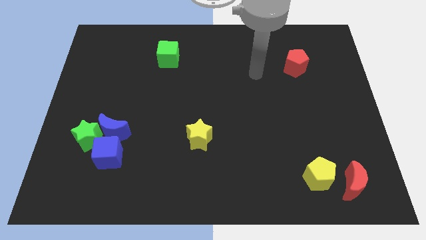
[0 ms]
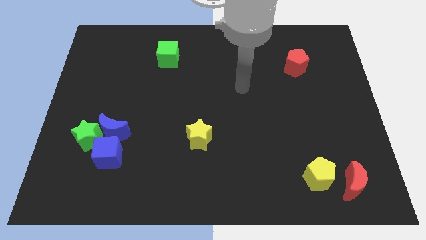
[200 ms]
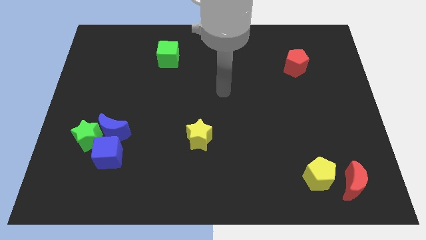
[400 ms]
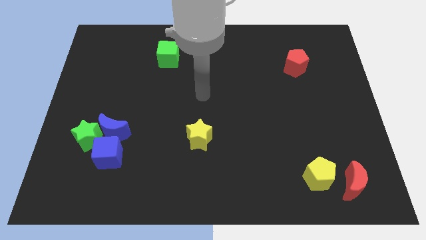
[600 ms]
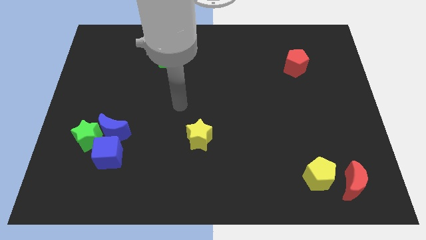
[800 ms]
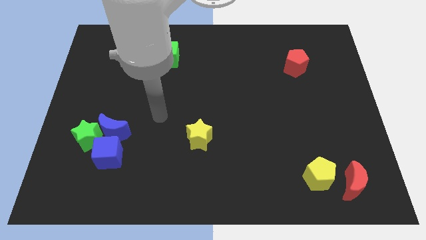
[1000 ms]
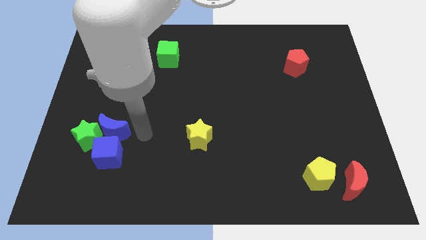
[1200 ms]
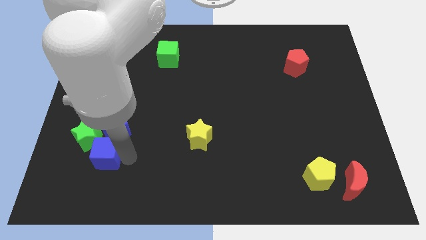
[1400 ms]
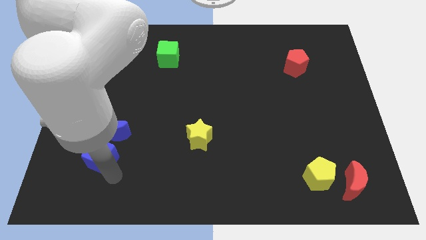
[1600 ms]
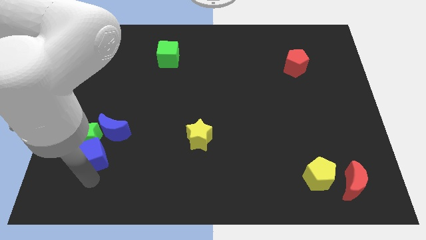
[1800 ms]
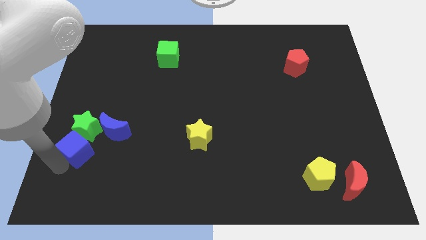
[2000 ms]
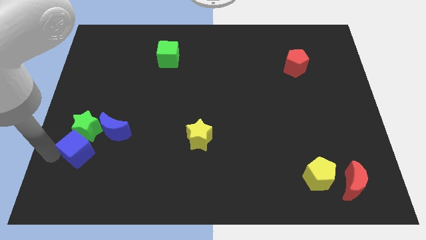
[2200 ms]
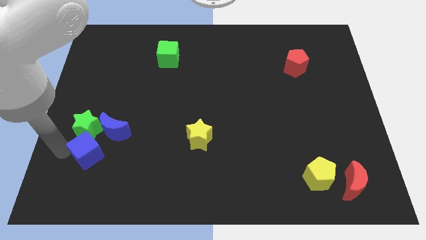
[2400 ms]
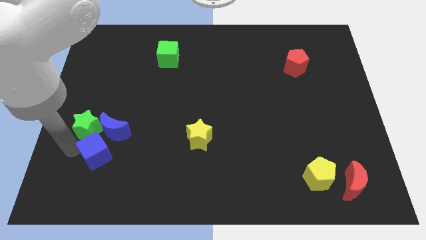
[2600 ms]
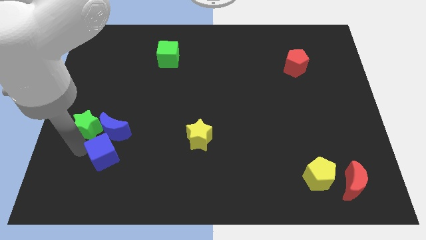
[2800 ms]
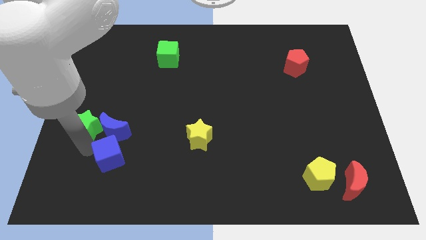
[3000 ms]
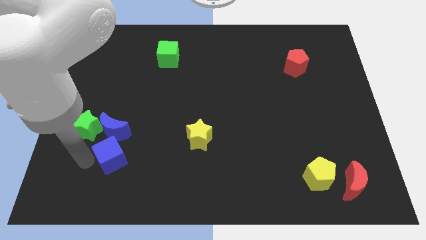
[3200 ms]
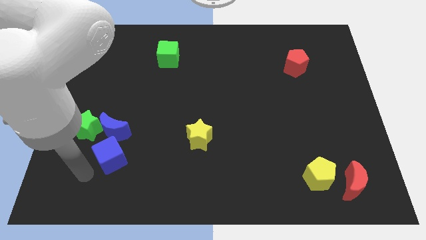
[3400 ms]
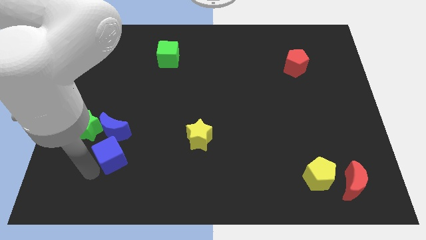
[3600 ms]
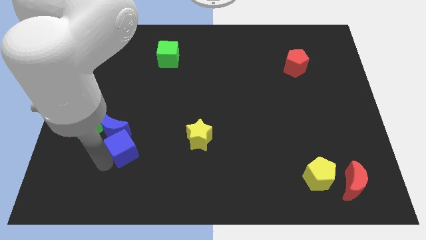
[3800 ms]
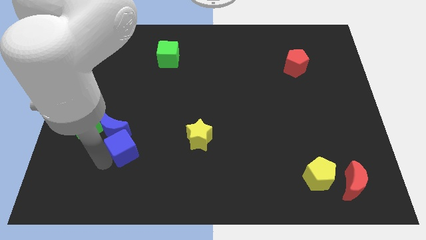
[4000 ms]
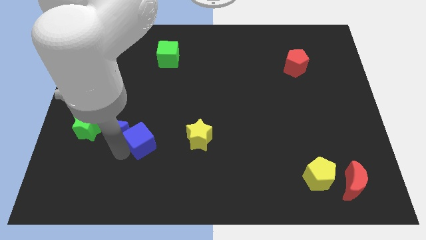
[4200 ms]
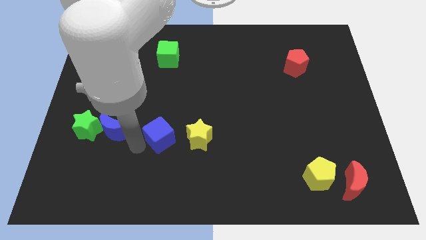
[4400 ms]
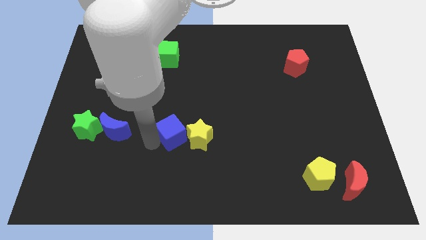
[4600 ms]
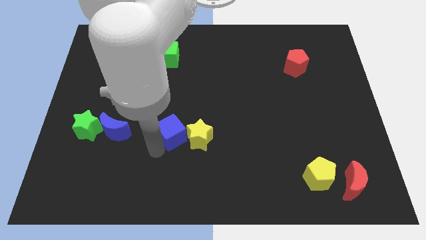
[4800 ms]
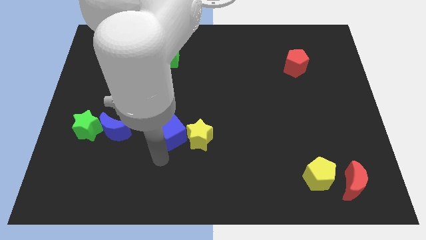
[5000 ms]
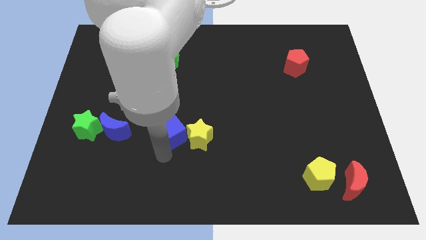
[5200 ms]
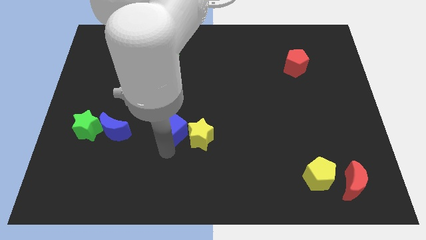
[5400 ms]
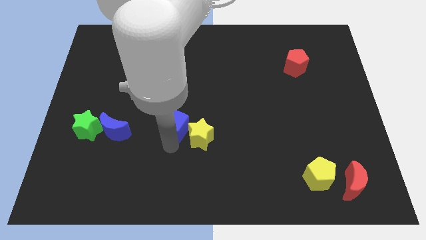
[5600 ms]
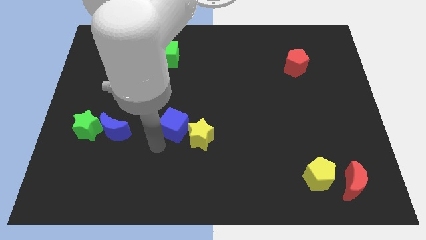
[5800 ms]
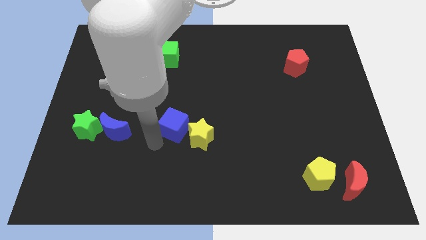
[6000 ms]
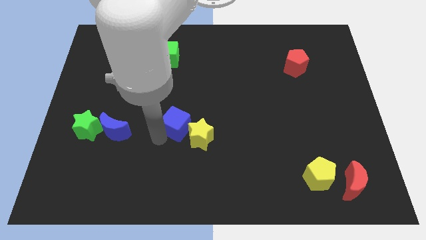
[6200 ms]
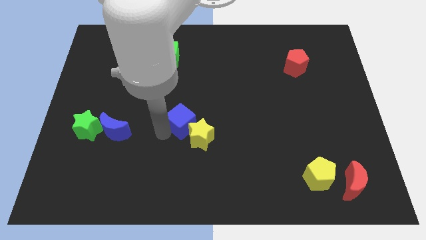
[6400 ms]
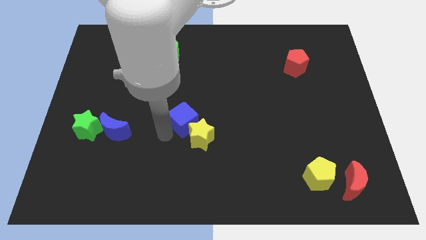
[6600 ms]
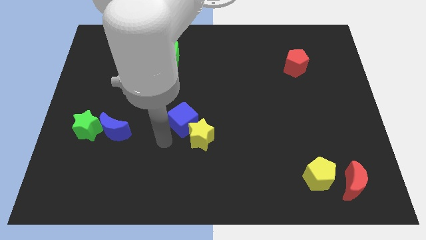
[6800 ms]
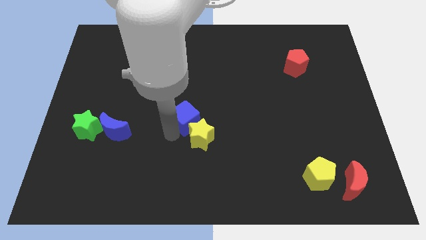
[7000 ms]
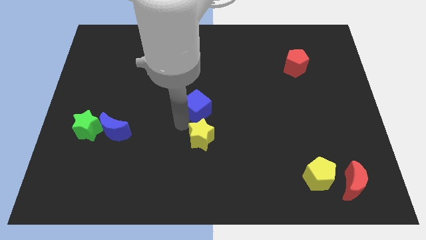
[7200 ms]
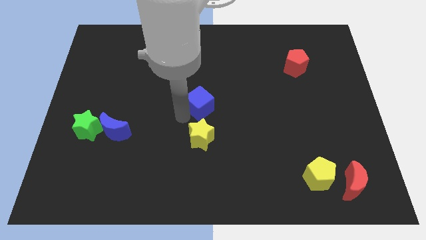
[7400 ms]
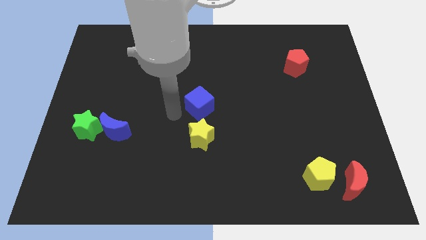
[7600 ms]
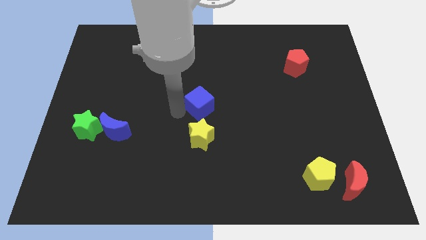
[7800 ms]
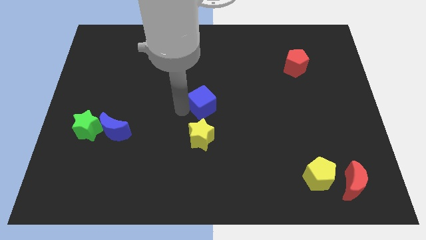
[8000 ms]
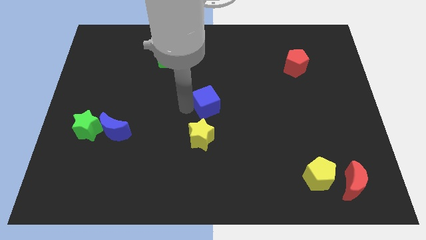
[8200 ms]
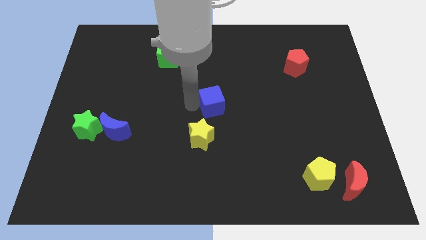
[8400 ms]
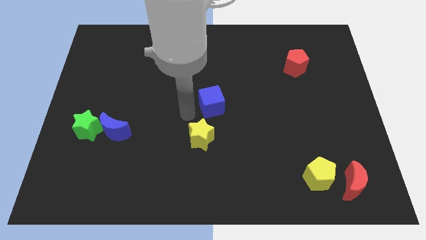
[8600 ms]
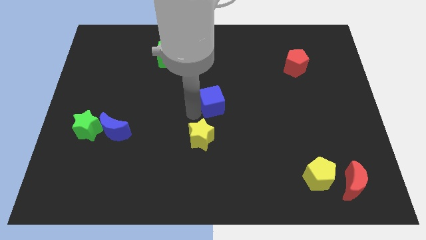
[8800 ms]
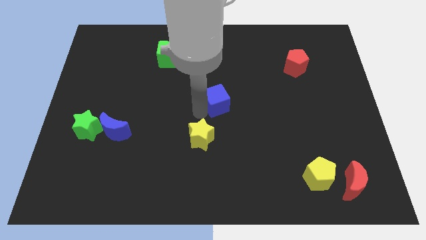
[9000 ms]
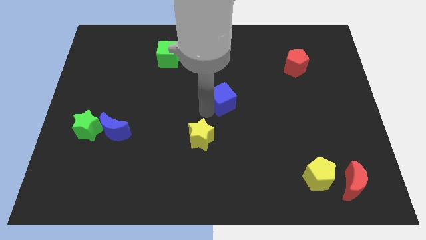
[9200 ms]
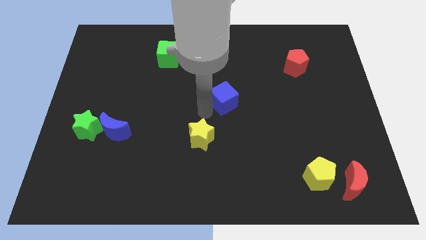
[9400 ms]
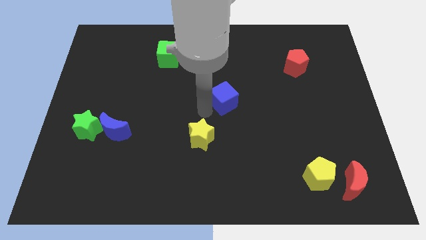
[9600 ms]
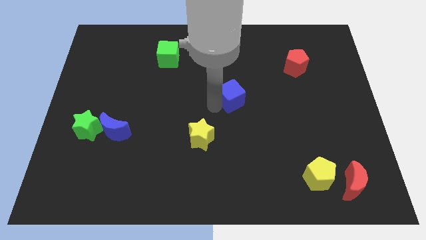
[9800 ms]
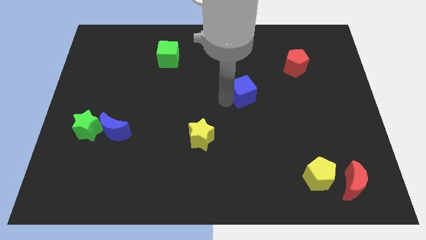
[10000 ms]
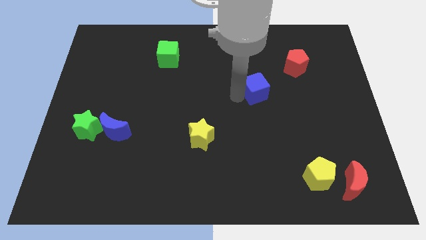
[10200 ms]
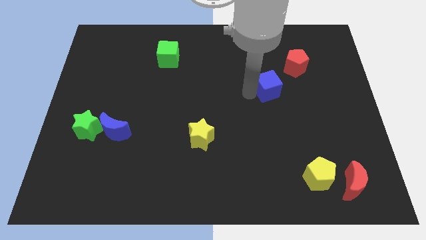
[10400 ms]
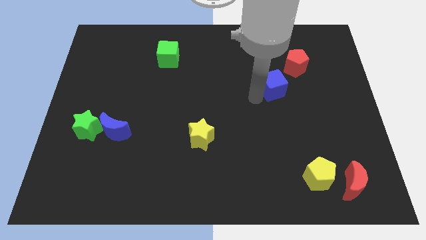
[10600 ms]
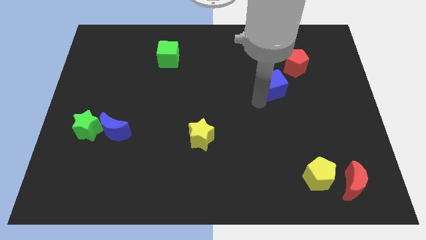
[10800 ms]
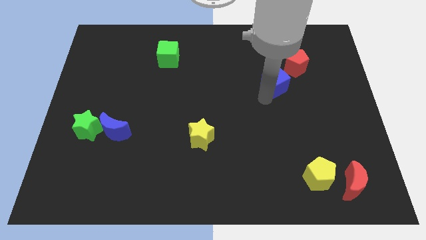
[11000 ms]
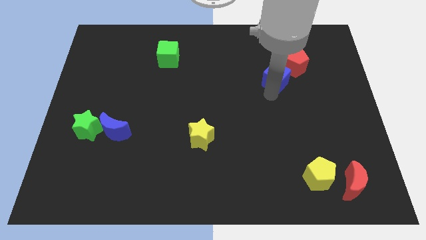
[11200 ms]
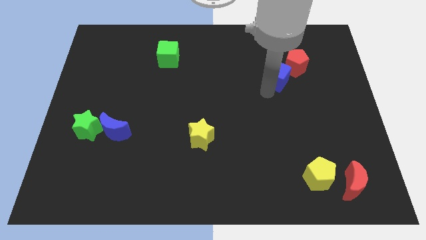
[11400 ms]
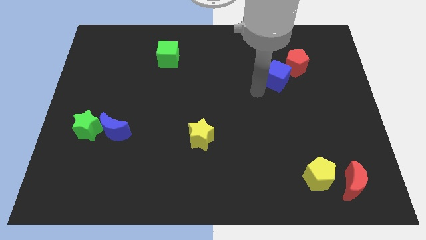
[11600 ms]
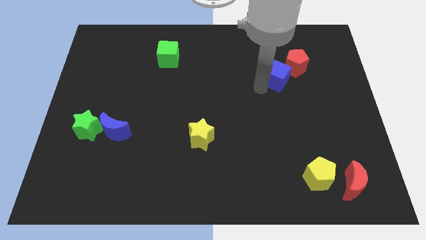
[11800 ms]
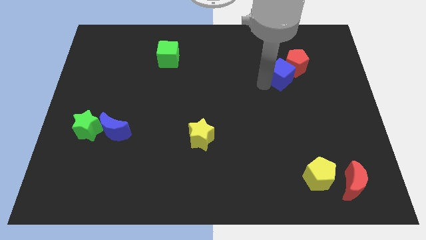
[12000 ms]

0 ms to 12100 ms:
slide the blue cube next to the red pentagon
